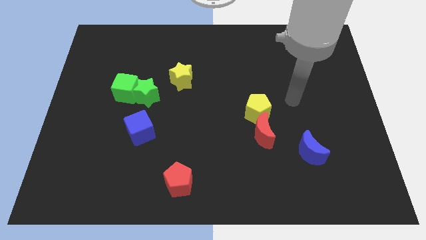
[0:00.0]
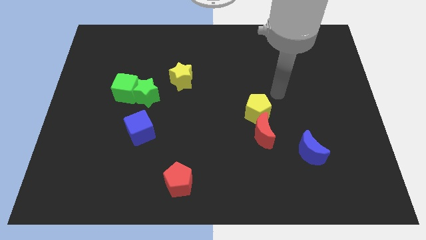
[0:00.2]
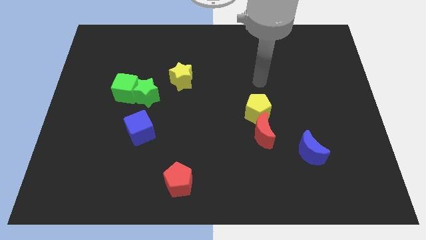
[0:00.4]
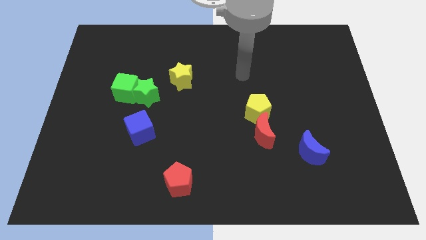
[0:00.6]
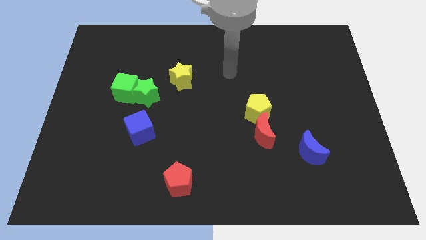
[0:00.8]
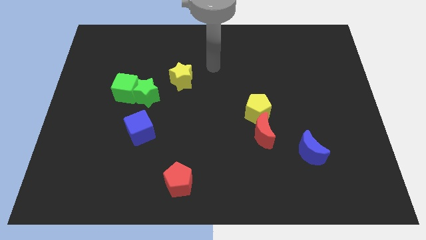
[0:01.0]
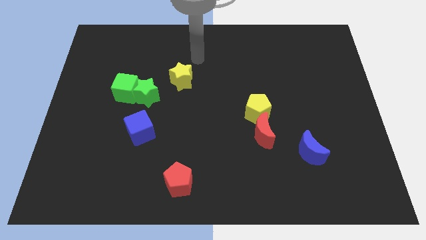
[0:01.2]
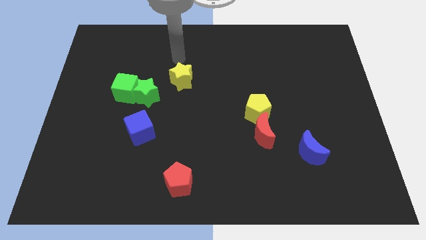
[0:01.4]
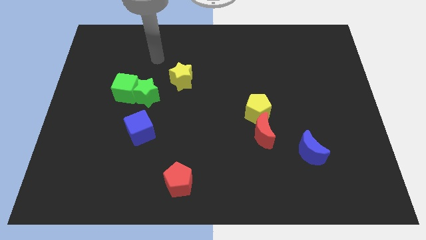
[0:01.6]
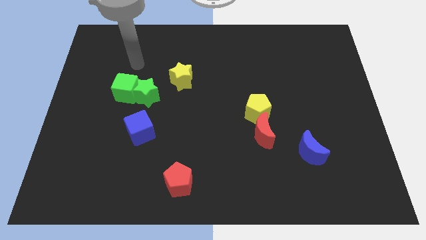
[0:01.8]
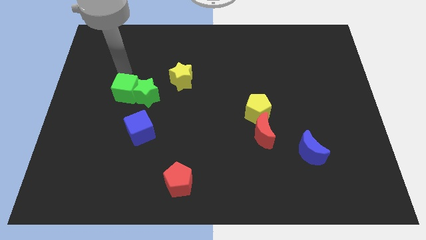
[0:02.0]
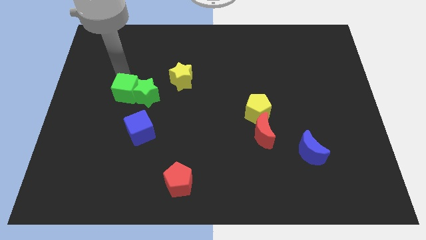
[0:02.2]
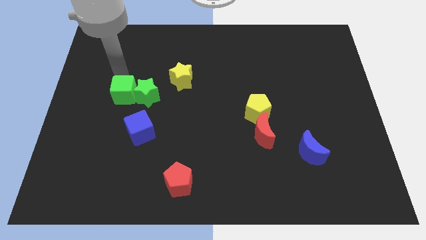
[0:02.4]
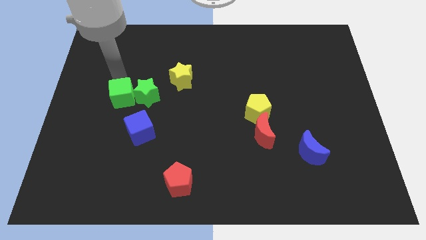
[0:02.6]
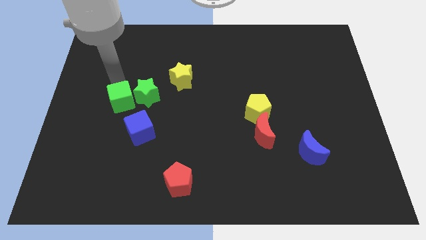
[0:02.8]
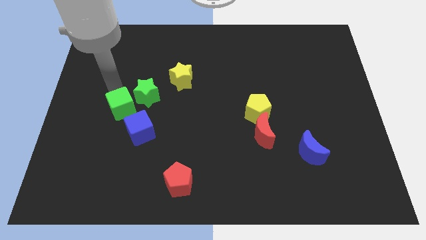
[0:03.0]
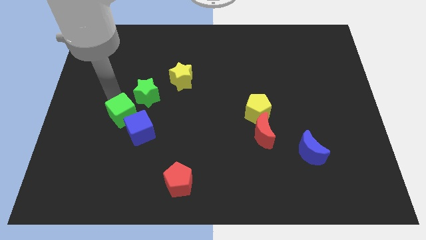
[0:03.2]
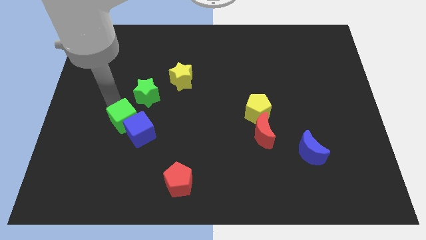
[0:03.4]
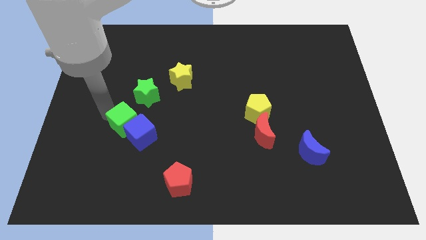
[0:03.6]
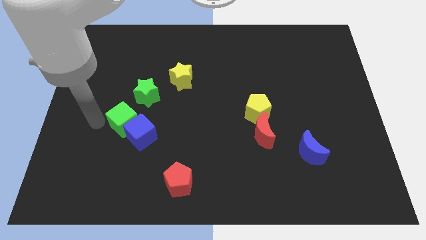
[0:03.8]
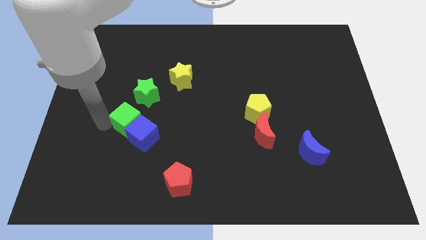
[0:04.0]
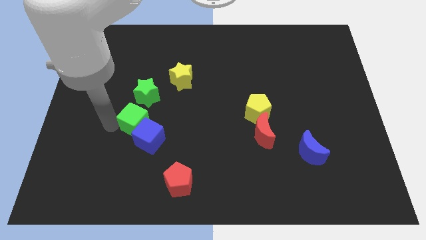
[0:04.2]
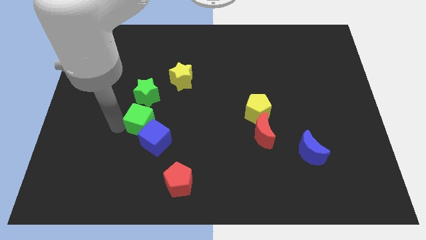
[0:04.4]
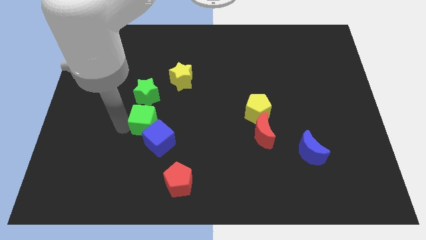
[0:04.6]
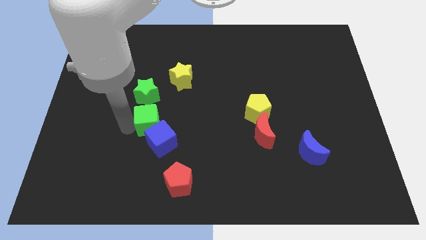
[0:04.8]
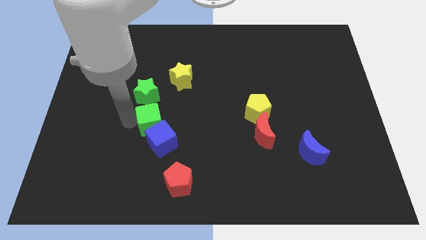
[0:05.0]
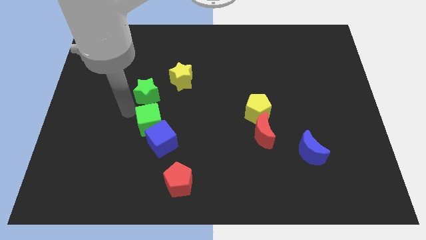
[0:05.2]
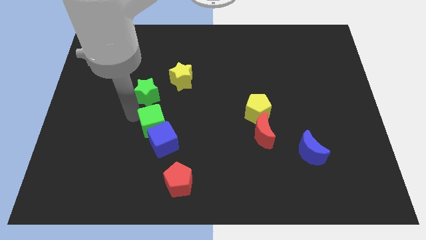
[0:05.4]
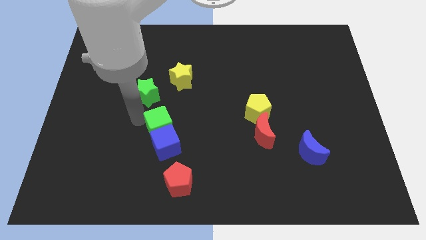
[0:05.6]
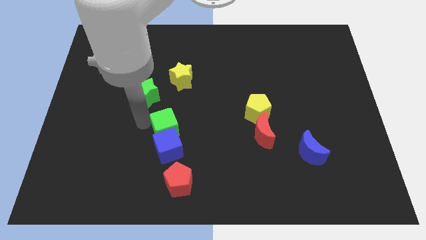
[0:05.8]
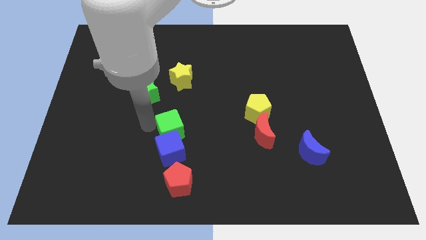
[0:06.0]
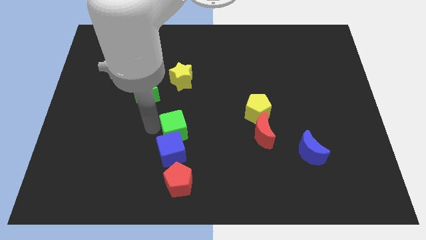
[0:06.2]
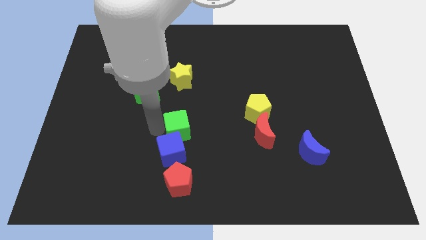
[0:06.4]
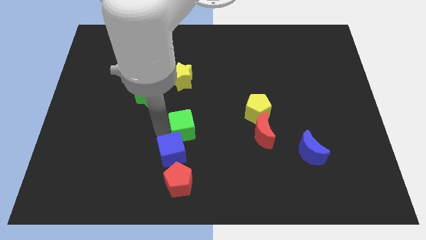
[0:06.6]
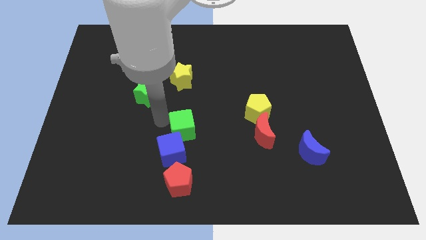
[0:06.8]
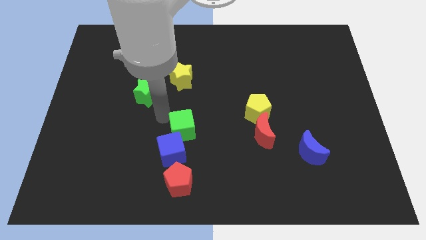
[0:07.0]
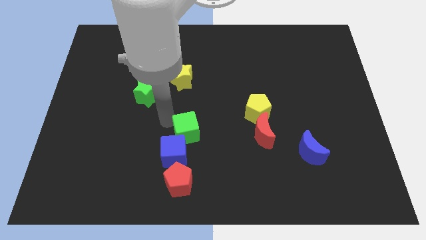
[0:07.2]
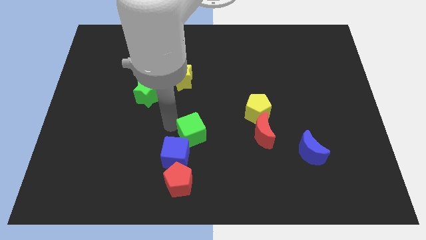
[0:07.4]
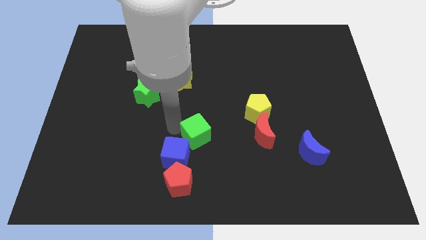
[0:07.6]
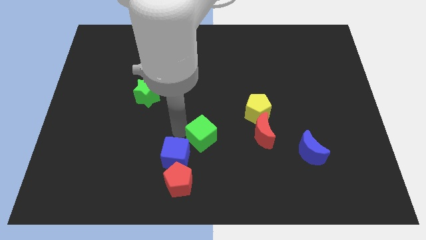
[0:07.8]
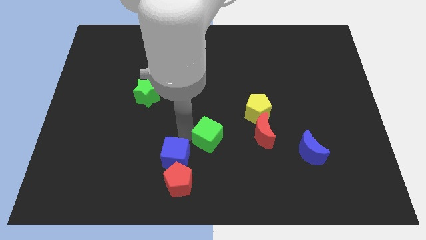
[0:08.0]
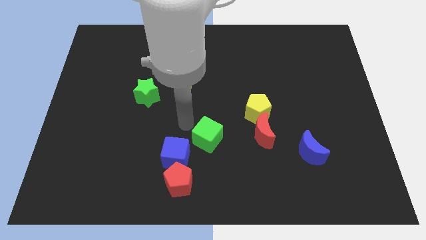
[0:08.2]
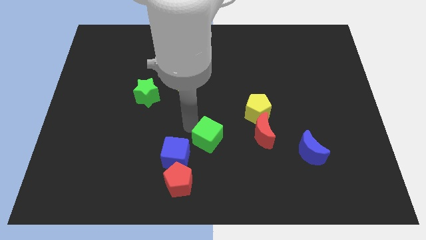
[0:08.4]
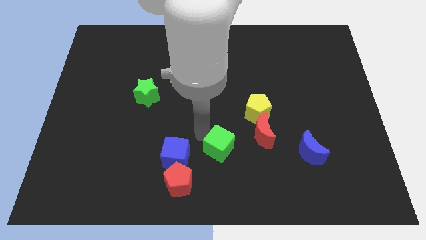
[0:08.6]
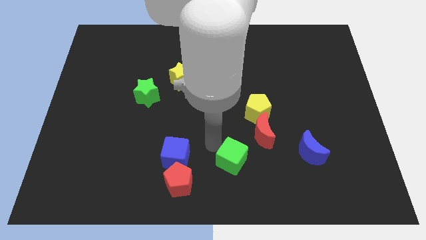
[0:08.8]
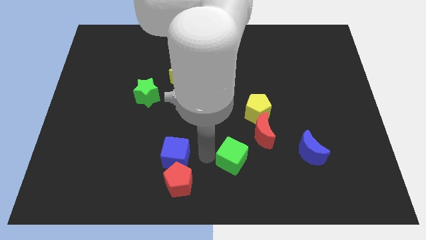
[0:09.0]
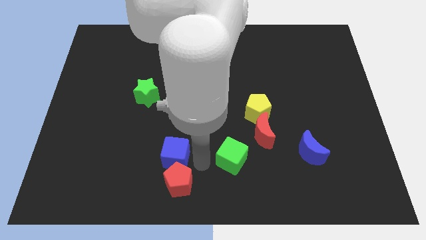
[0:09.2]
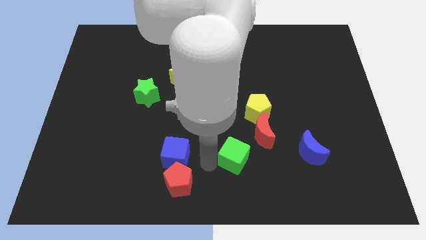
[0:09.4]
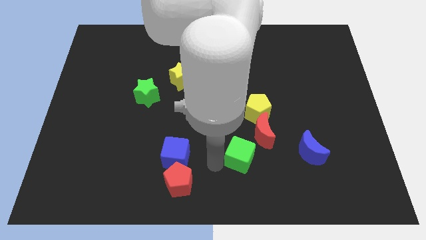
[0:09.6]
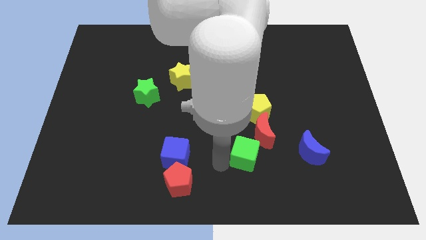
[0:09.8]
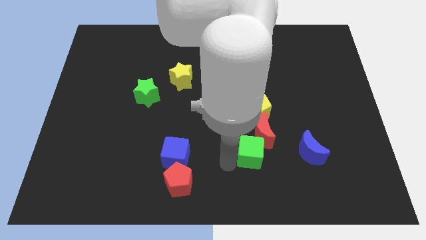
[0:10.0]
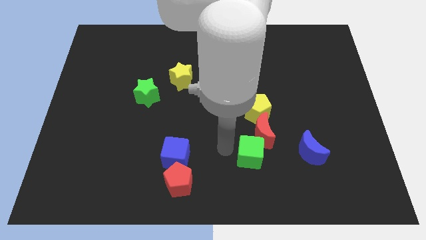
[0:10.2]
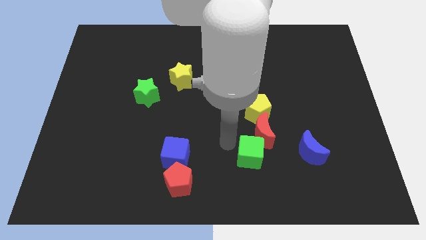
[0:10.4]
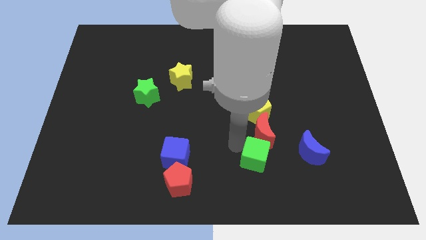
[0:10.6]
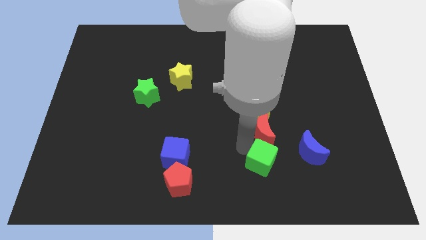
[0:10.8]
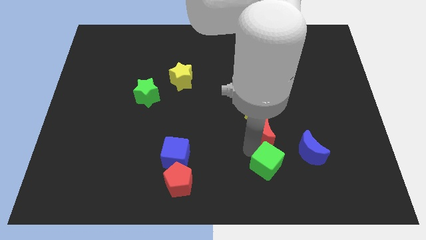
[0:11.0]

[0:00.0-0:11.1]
move the green cube to the bottom left side of the blue moon

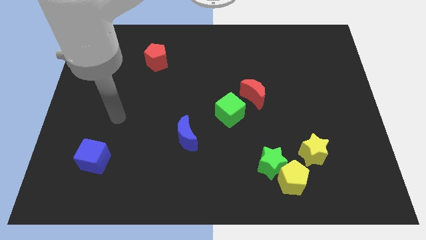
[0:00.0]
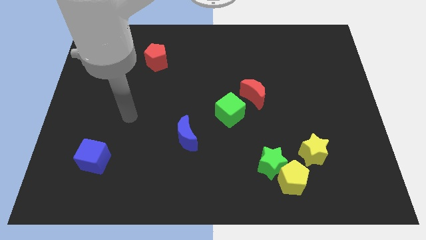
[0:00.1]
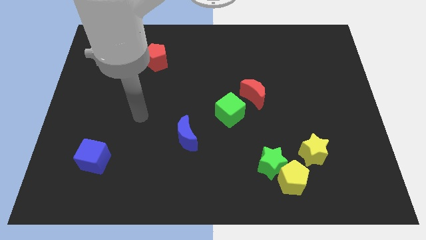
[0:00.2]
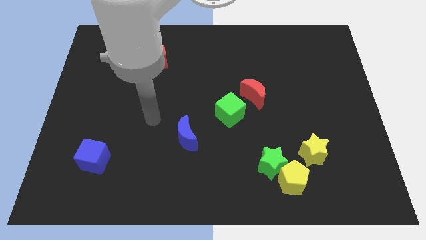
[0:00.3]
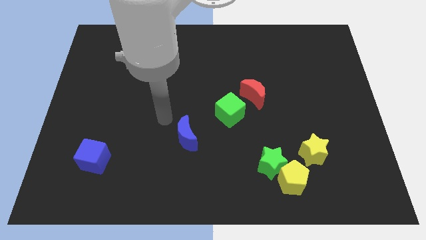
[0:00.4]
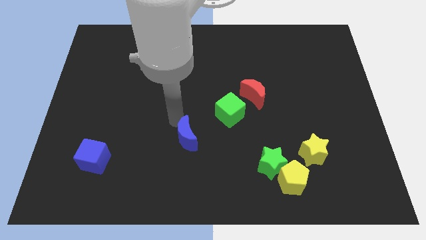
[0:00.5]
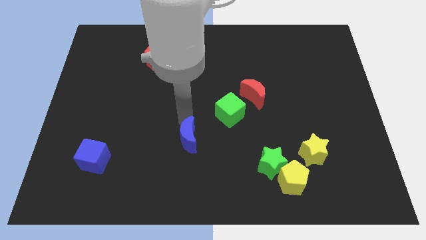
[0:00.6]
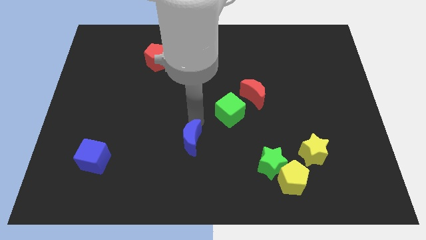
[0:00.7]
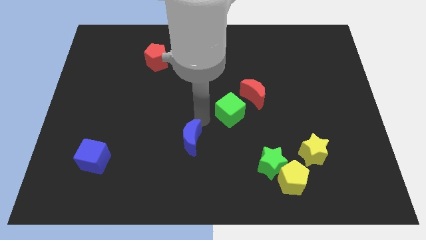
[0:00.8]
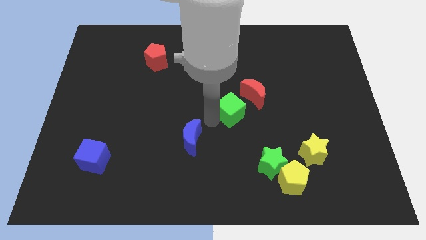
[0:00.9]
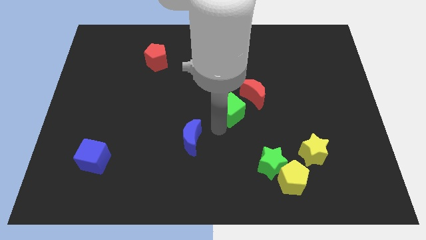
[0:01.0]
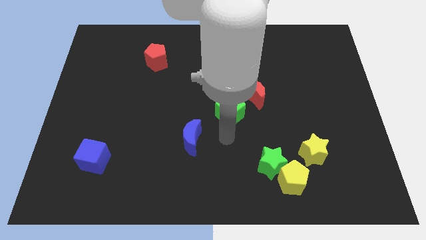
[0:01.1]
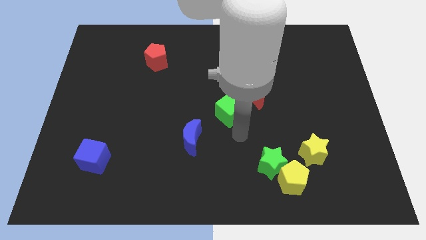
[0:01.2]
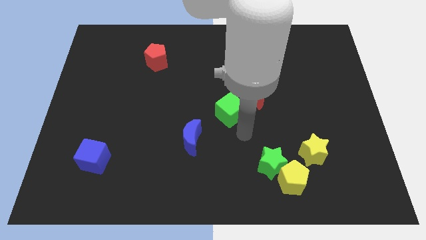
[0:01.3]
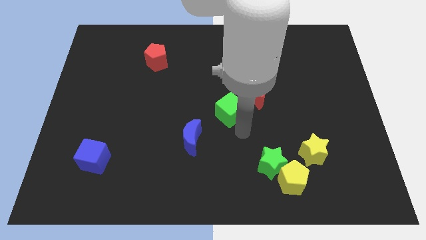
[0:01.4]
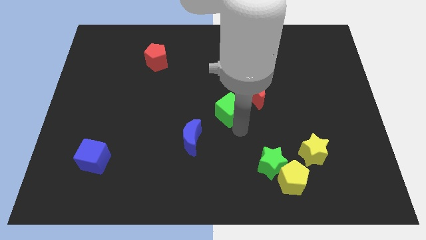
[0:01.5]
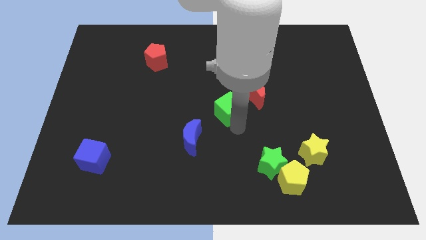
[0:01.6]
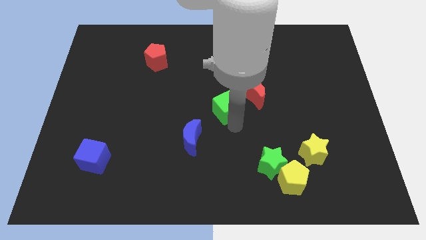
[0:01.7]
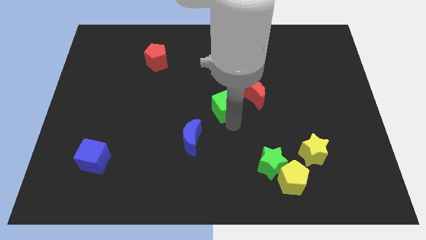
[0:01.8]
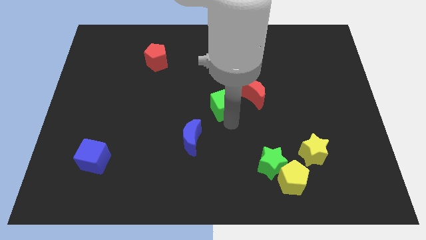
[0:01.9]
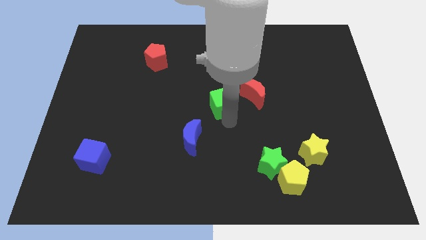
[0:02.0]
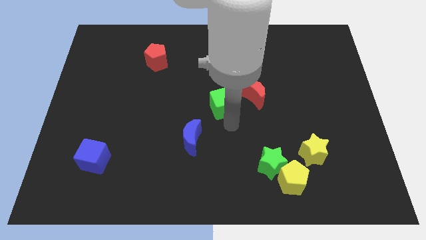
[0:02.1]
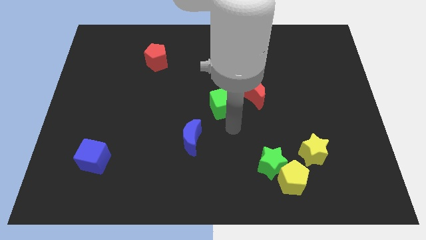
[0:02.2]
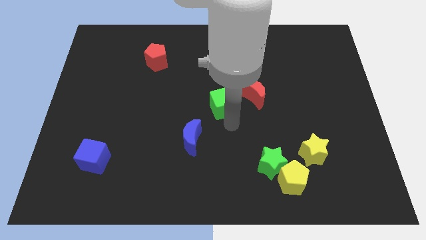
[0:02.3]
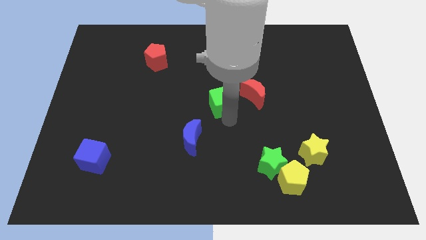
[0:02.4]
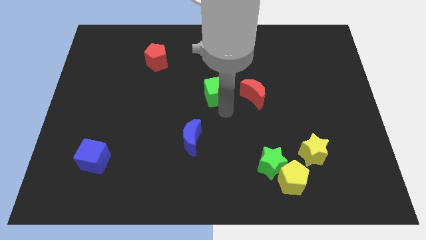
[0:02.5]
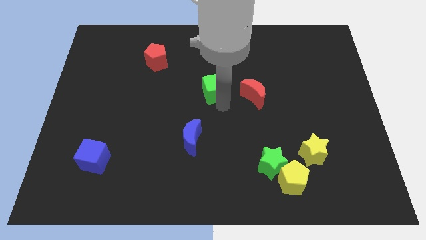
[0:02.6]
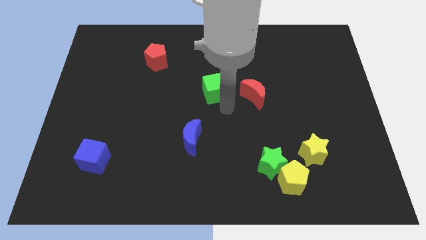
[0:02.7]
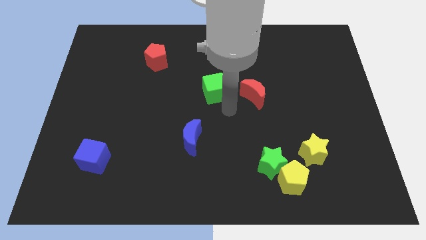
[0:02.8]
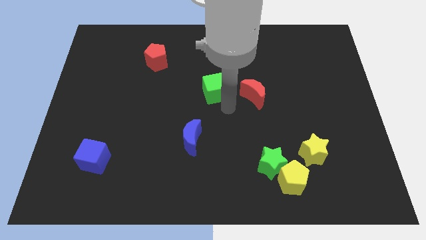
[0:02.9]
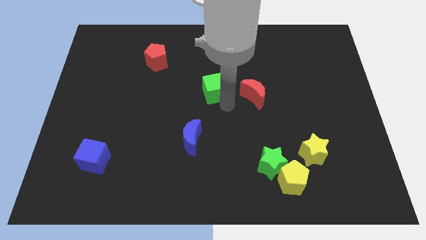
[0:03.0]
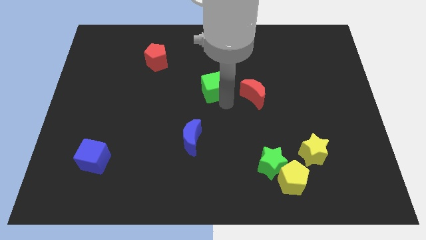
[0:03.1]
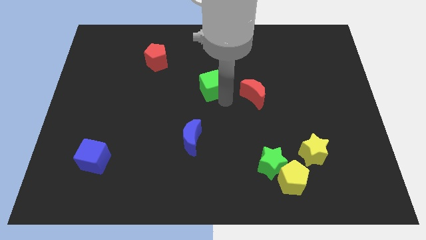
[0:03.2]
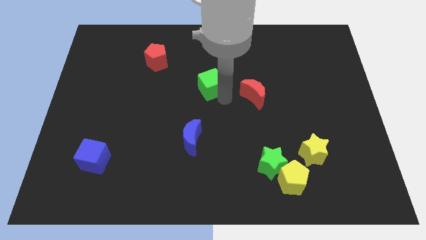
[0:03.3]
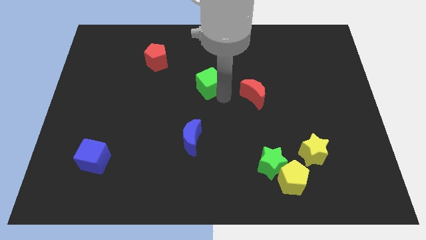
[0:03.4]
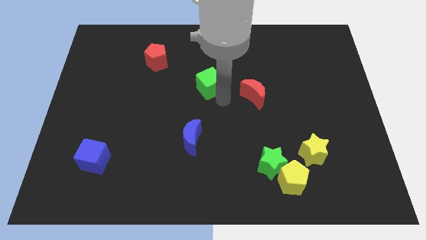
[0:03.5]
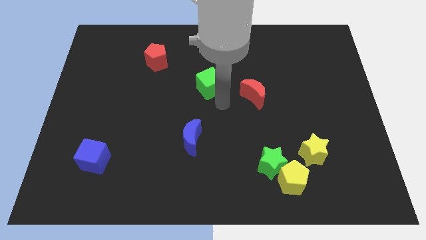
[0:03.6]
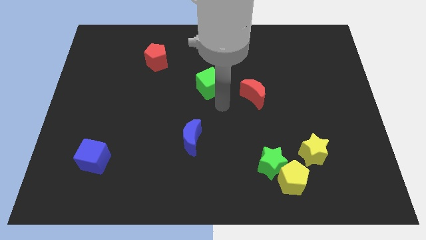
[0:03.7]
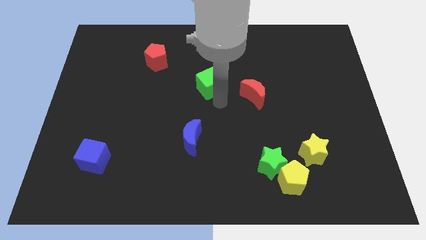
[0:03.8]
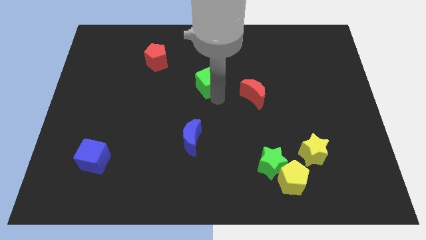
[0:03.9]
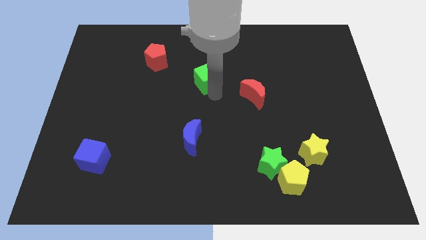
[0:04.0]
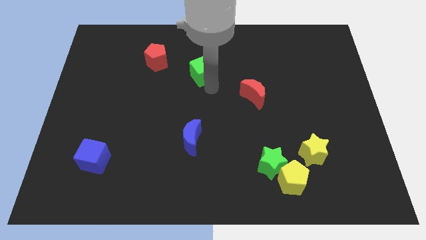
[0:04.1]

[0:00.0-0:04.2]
move the green cube just right of the red pentagon
